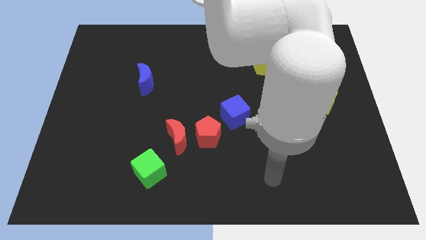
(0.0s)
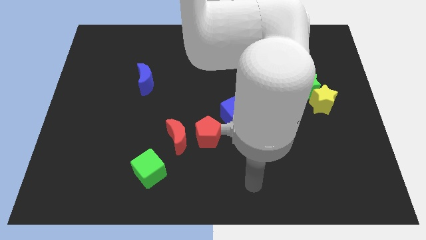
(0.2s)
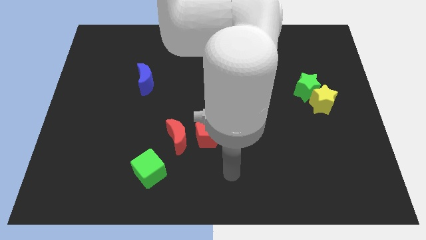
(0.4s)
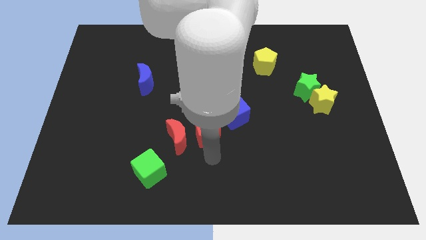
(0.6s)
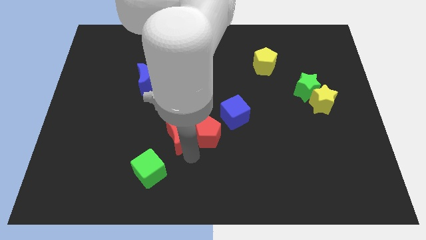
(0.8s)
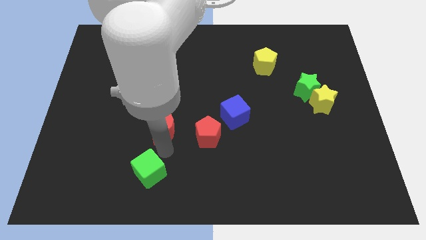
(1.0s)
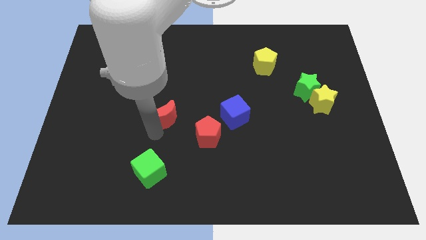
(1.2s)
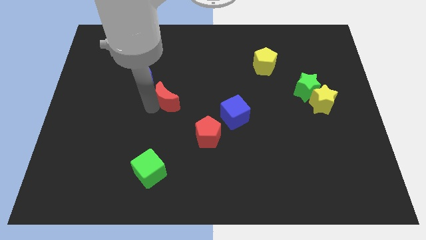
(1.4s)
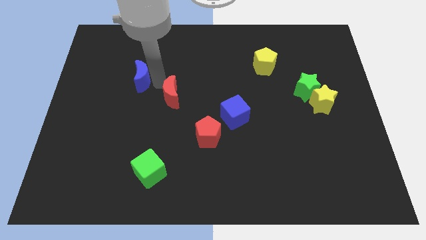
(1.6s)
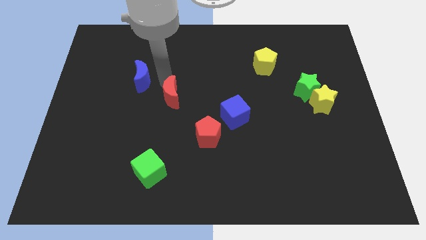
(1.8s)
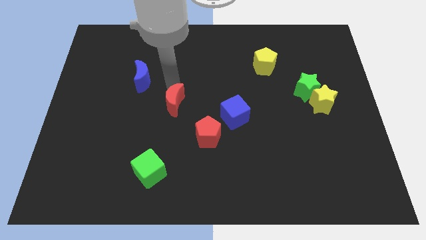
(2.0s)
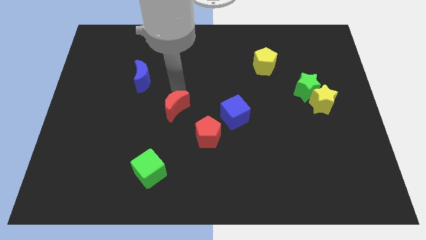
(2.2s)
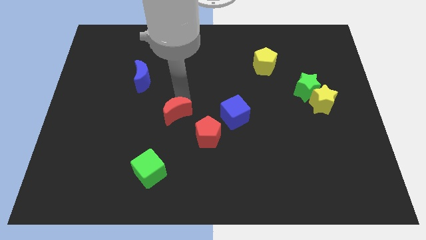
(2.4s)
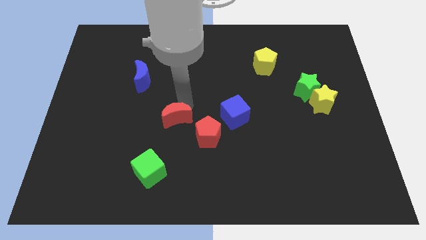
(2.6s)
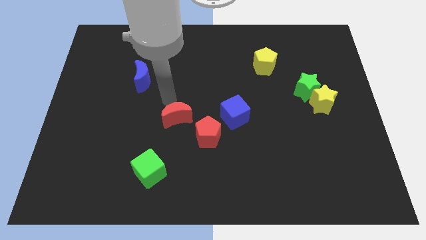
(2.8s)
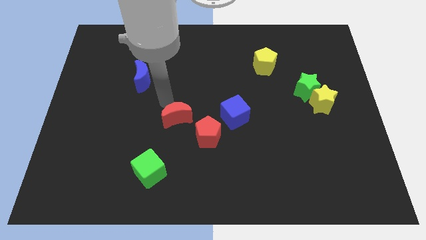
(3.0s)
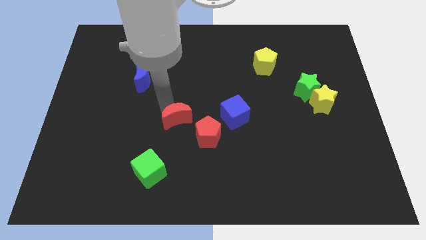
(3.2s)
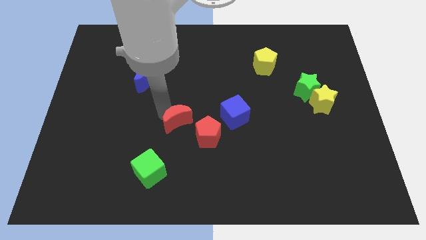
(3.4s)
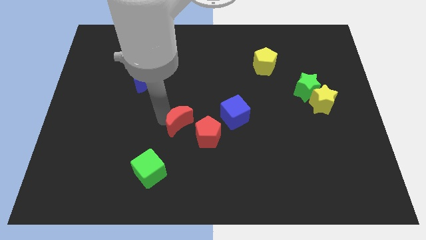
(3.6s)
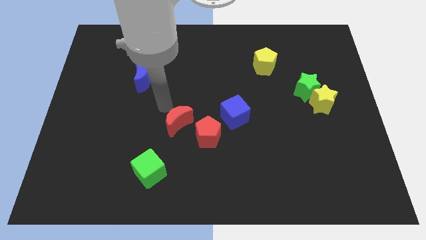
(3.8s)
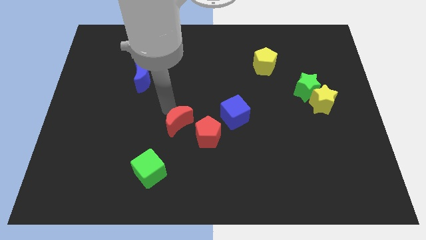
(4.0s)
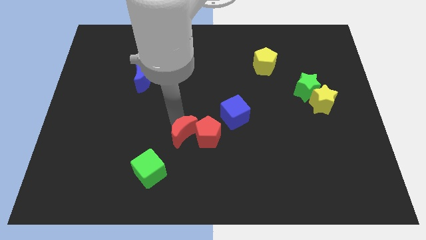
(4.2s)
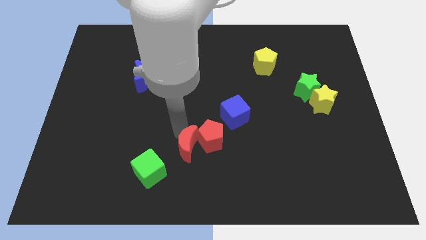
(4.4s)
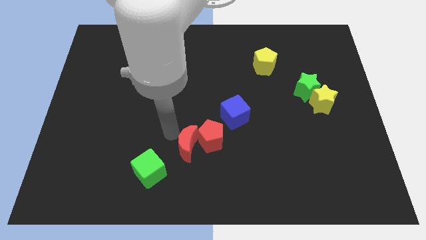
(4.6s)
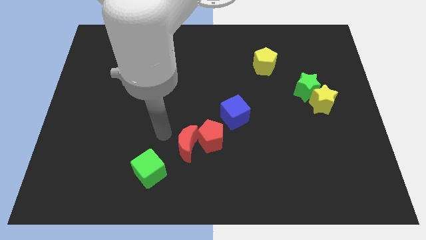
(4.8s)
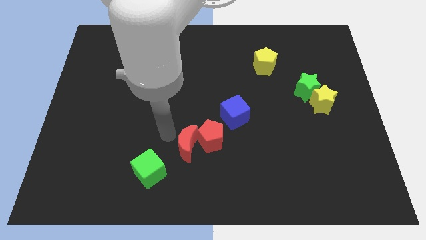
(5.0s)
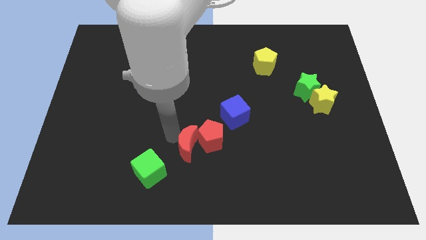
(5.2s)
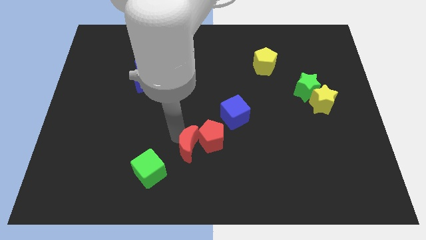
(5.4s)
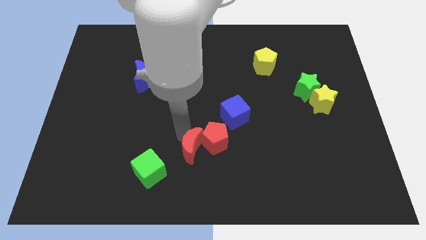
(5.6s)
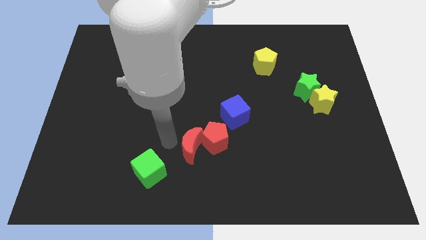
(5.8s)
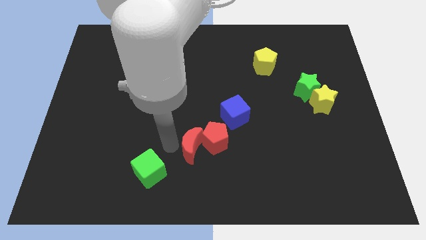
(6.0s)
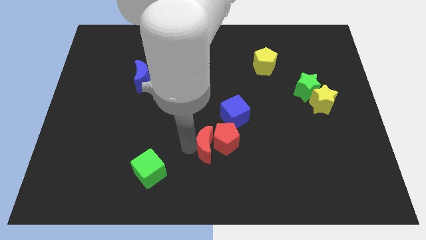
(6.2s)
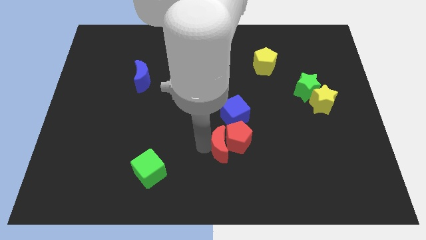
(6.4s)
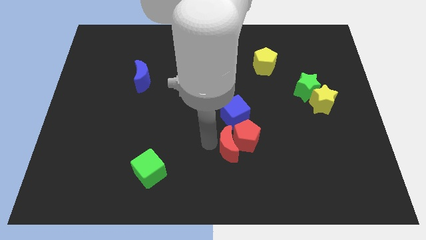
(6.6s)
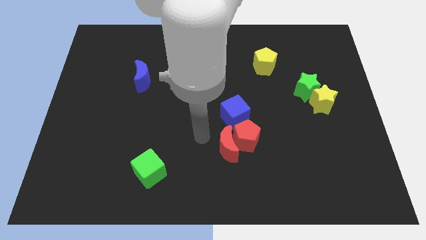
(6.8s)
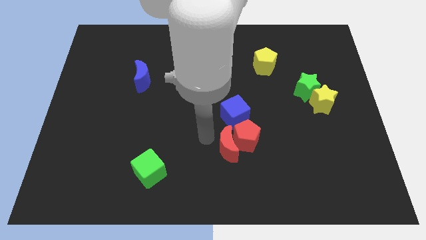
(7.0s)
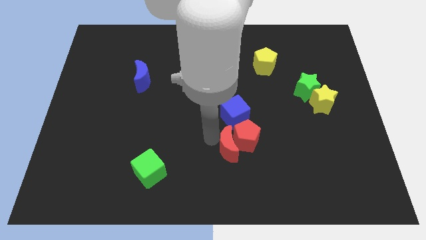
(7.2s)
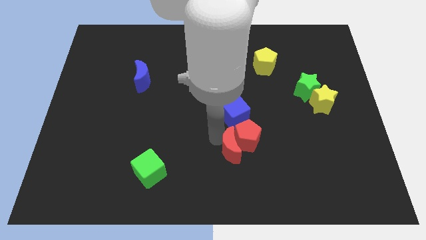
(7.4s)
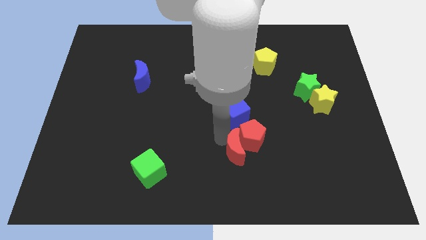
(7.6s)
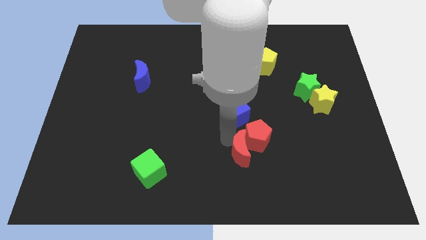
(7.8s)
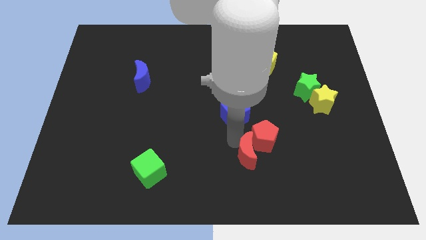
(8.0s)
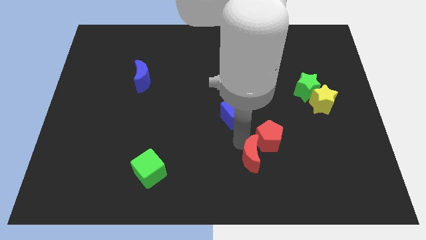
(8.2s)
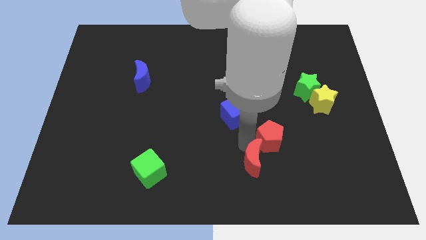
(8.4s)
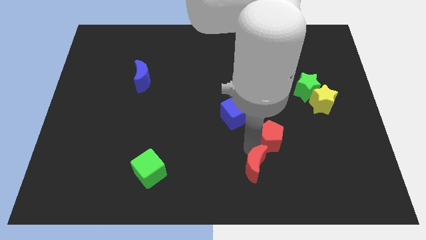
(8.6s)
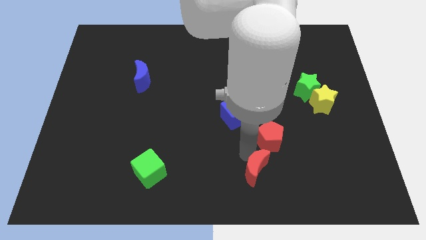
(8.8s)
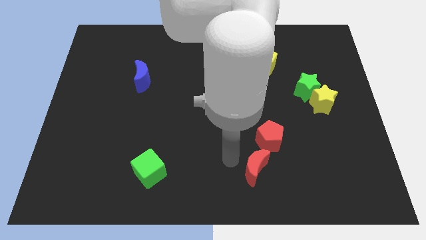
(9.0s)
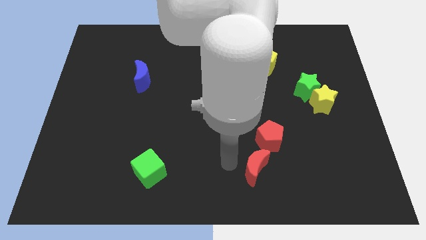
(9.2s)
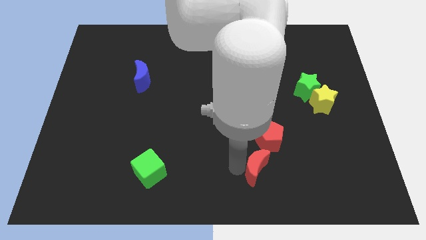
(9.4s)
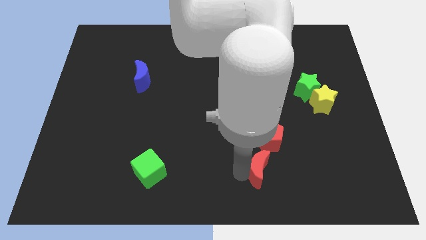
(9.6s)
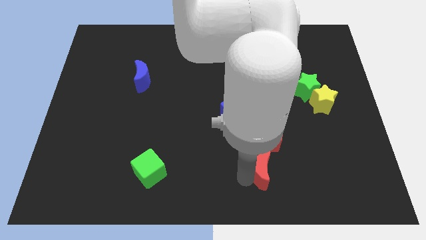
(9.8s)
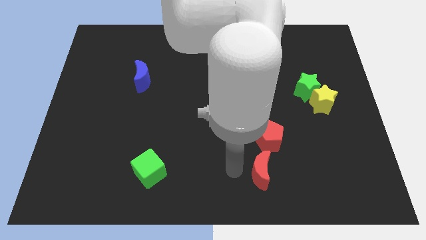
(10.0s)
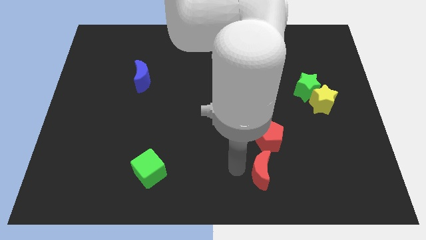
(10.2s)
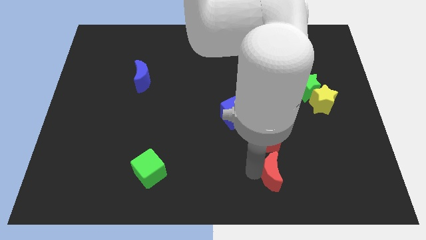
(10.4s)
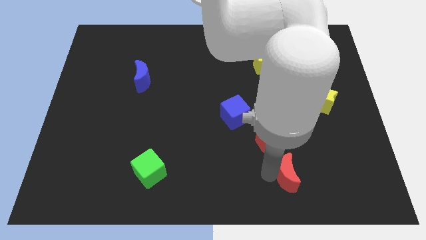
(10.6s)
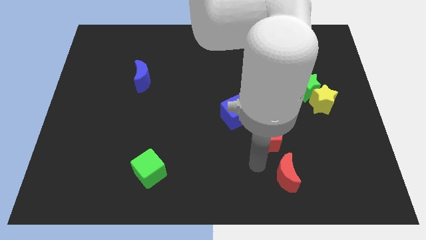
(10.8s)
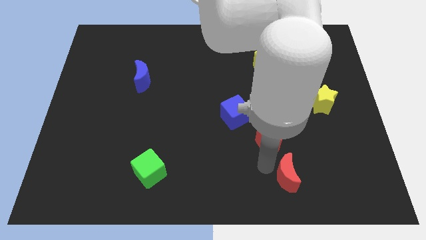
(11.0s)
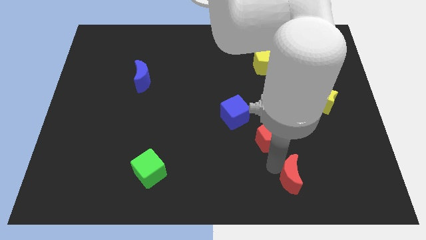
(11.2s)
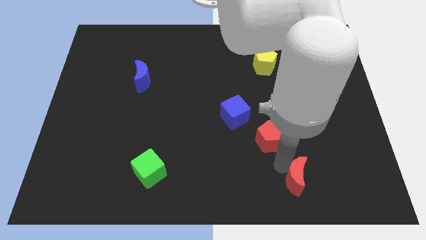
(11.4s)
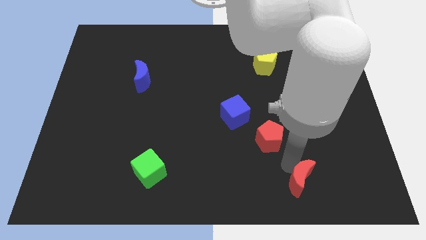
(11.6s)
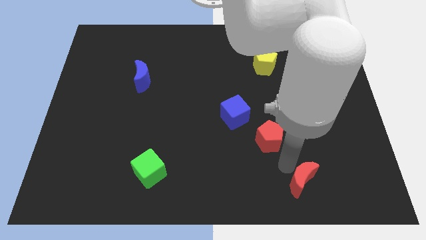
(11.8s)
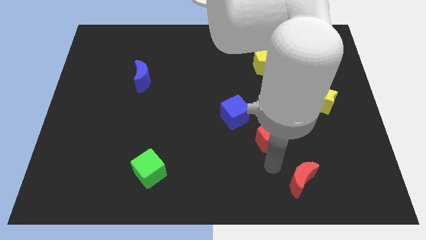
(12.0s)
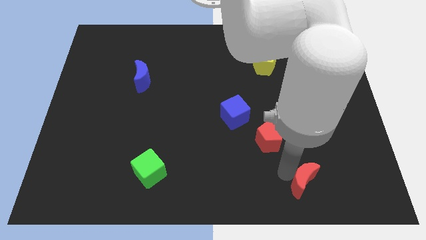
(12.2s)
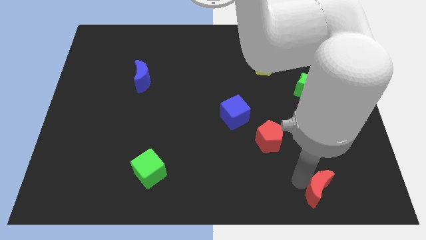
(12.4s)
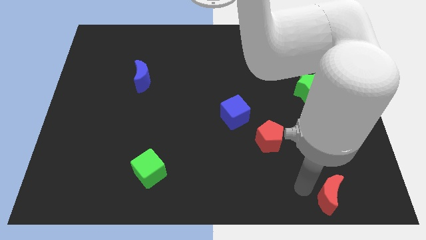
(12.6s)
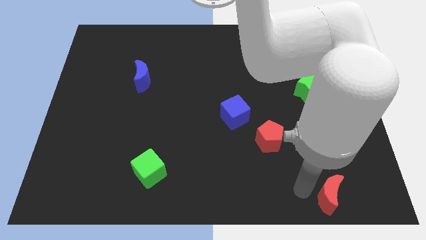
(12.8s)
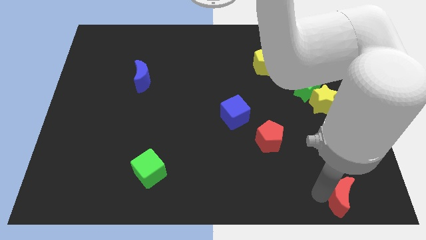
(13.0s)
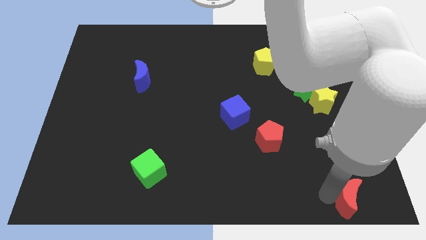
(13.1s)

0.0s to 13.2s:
put the red moon to the bottom right
